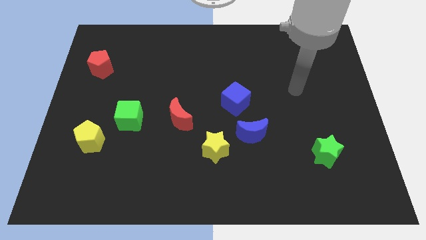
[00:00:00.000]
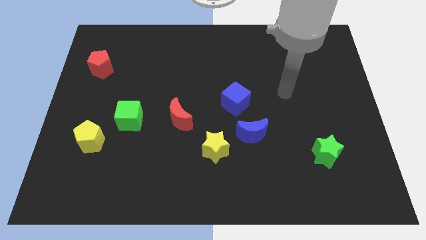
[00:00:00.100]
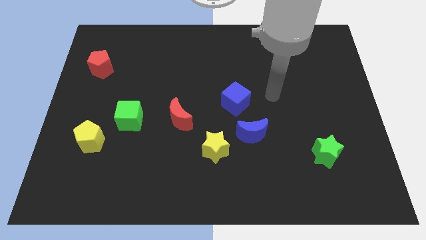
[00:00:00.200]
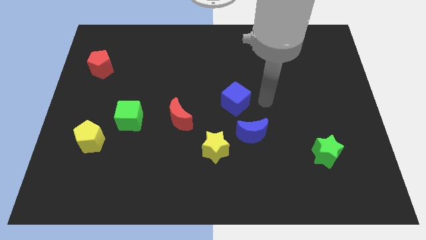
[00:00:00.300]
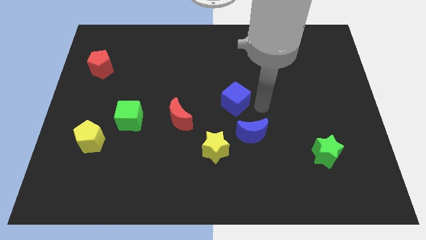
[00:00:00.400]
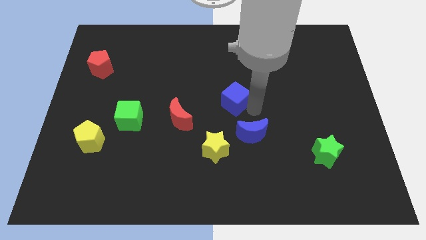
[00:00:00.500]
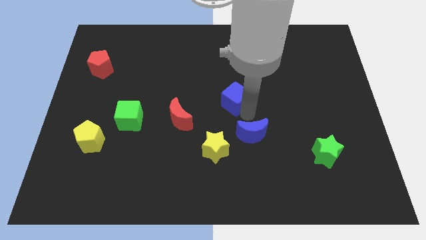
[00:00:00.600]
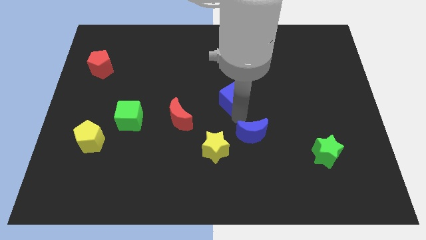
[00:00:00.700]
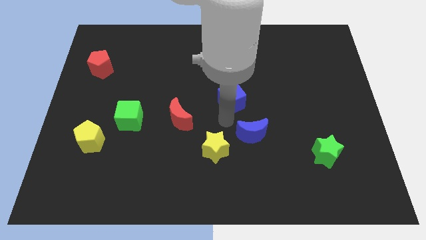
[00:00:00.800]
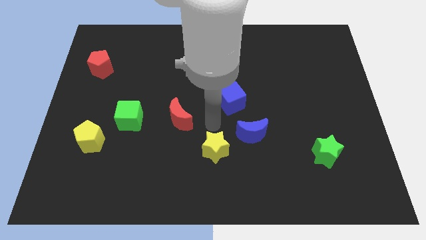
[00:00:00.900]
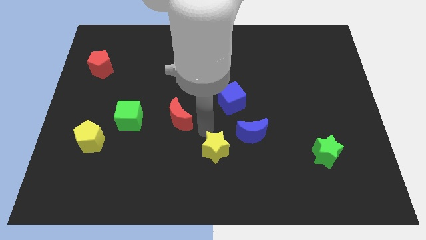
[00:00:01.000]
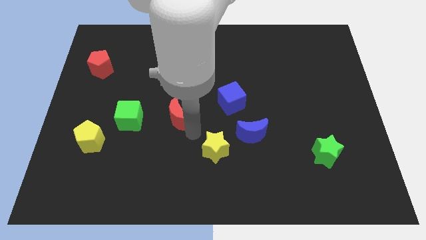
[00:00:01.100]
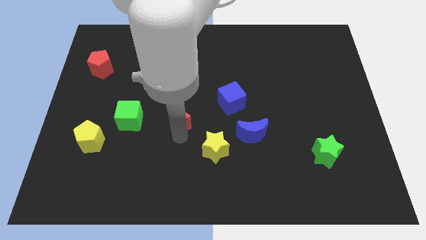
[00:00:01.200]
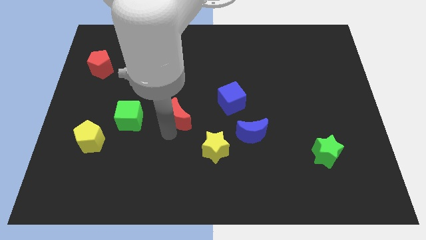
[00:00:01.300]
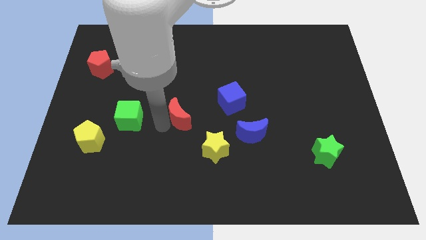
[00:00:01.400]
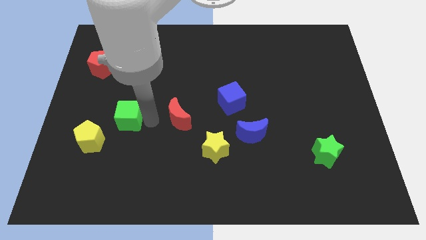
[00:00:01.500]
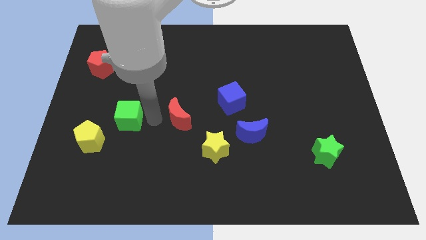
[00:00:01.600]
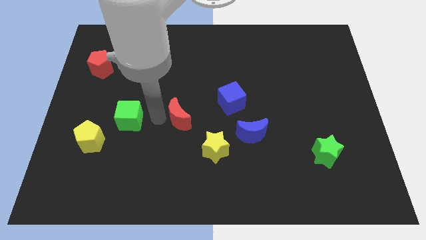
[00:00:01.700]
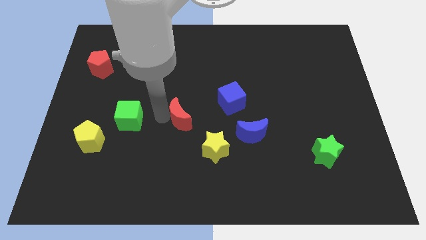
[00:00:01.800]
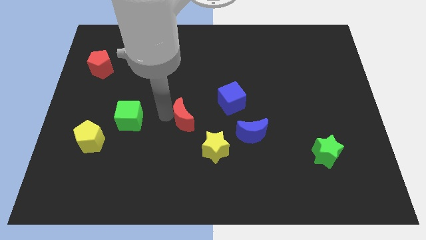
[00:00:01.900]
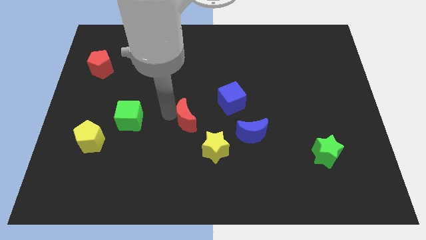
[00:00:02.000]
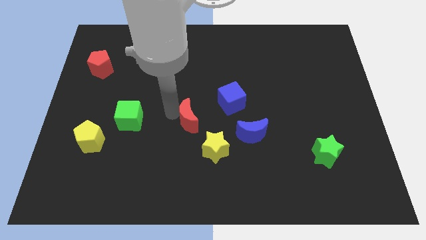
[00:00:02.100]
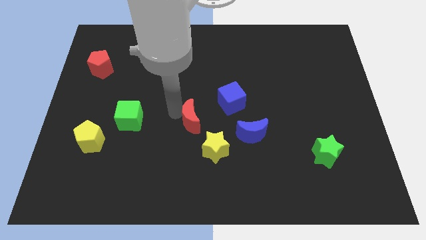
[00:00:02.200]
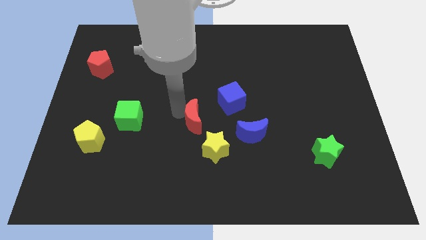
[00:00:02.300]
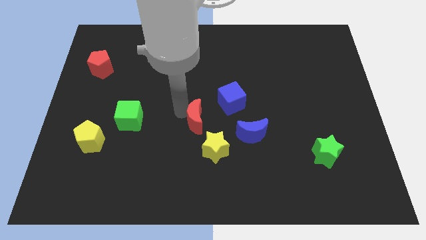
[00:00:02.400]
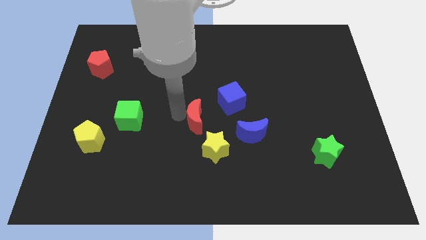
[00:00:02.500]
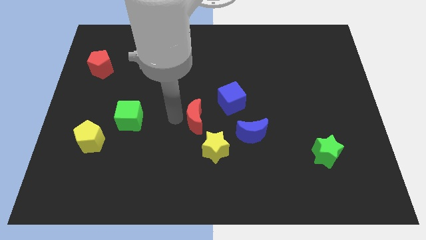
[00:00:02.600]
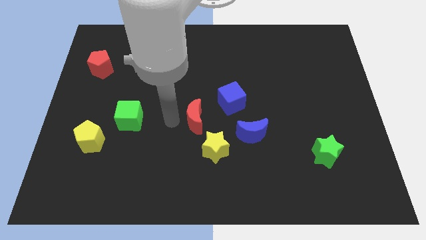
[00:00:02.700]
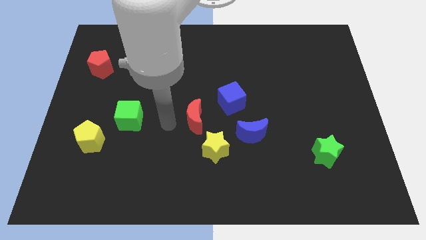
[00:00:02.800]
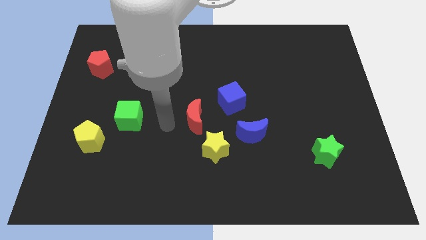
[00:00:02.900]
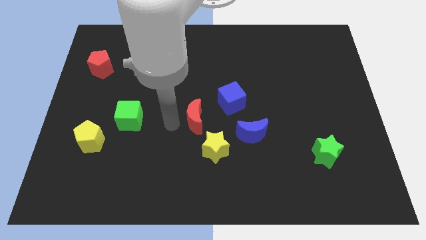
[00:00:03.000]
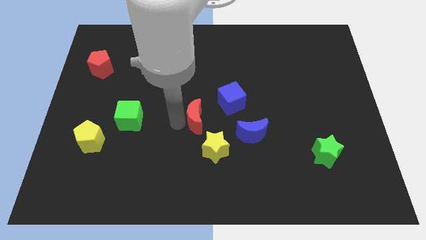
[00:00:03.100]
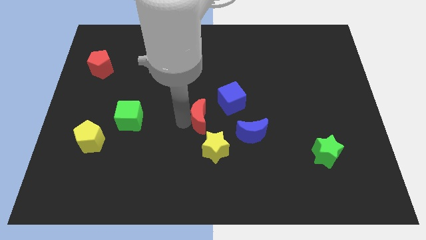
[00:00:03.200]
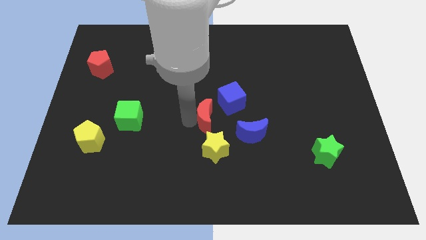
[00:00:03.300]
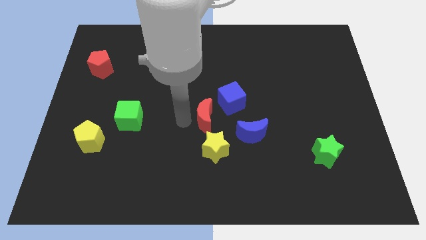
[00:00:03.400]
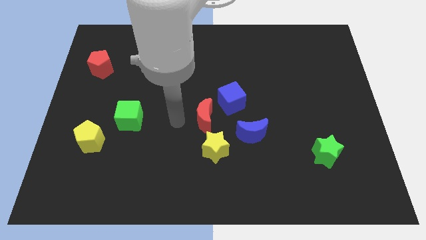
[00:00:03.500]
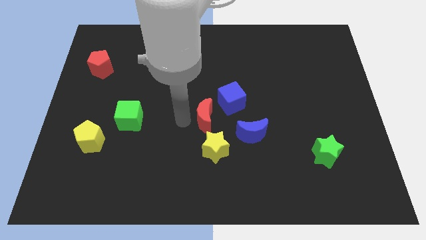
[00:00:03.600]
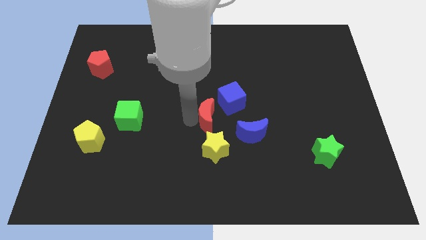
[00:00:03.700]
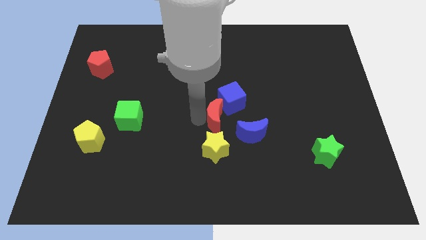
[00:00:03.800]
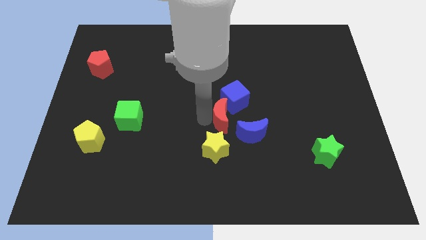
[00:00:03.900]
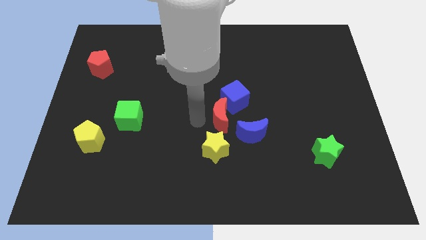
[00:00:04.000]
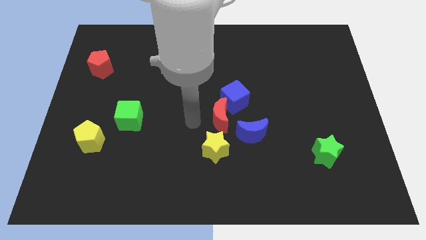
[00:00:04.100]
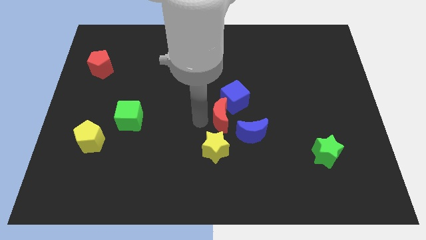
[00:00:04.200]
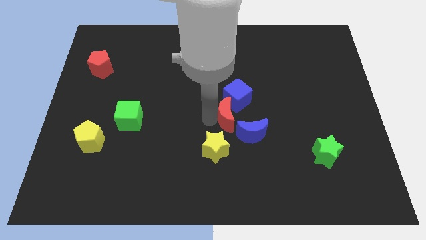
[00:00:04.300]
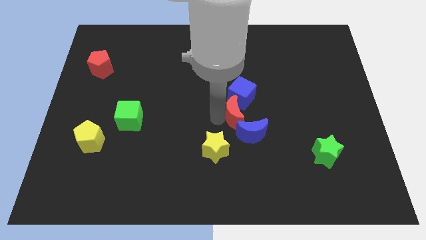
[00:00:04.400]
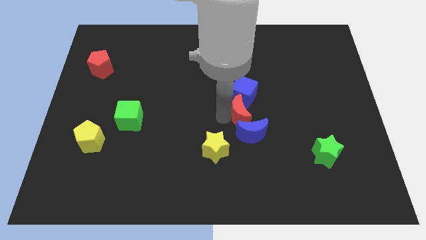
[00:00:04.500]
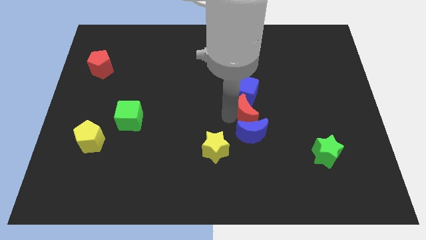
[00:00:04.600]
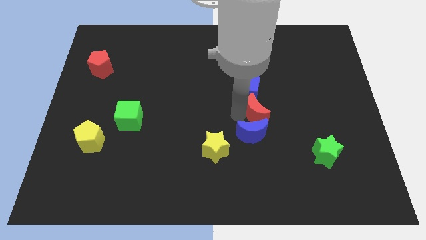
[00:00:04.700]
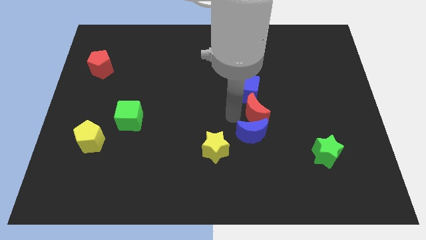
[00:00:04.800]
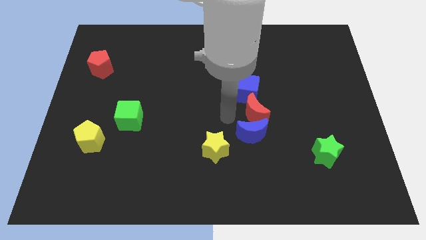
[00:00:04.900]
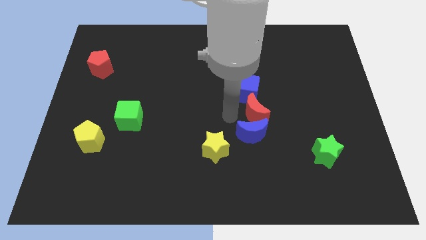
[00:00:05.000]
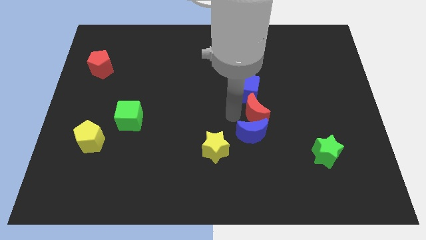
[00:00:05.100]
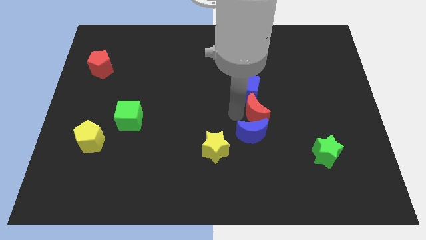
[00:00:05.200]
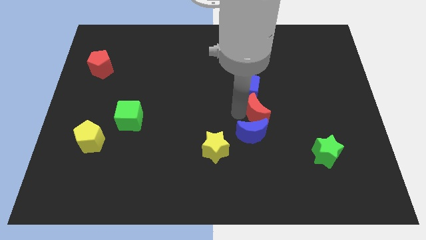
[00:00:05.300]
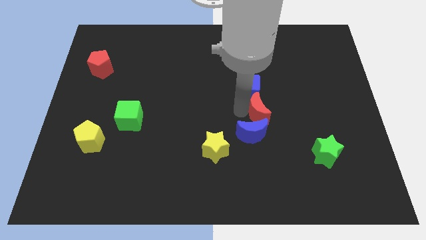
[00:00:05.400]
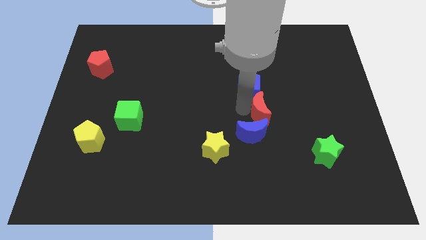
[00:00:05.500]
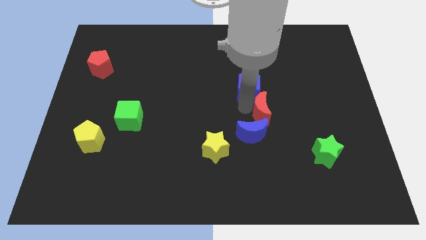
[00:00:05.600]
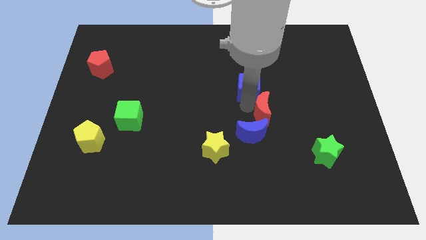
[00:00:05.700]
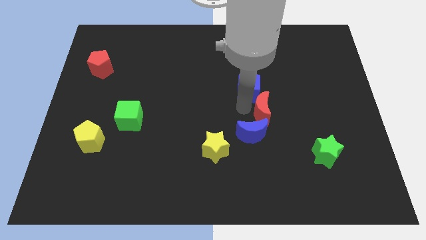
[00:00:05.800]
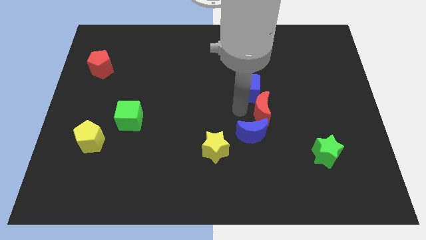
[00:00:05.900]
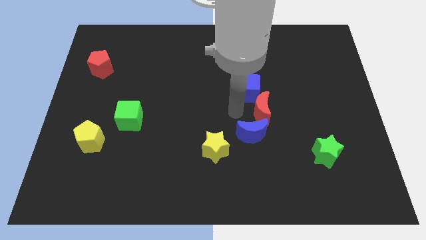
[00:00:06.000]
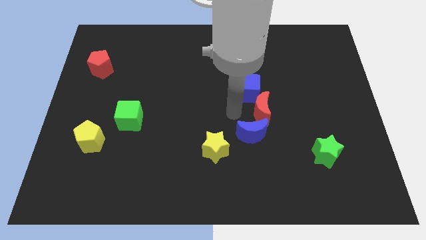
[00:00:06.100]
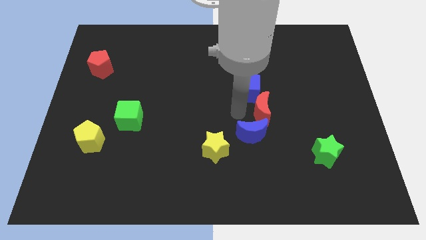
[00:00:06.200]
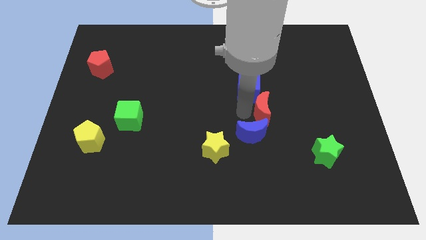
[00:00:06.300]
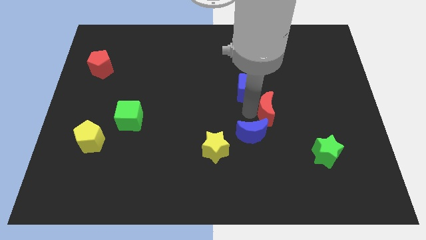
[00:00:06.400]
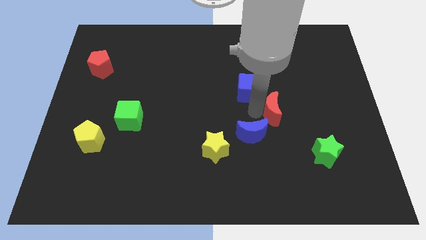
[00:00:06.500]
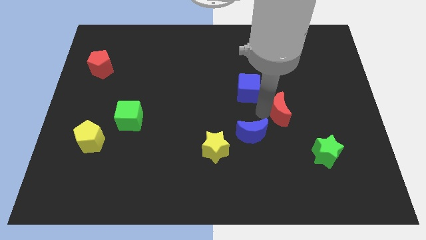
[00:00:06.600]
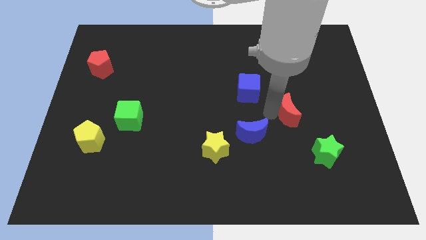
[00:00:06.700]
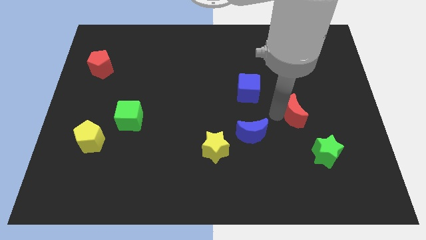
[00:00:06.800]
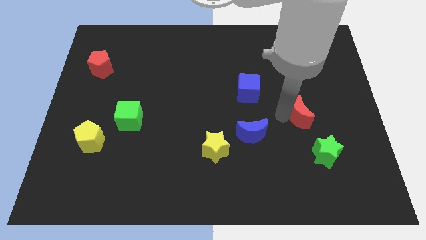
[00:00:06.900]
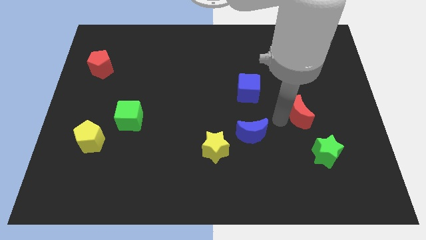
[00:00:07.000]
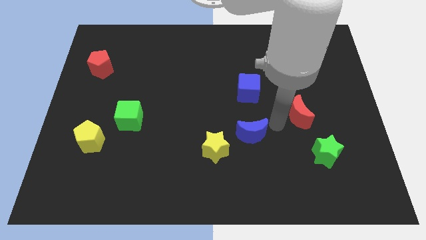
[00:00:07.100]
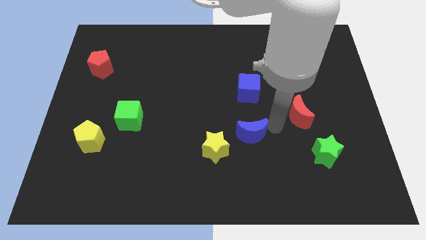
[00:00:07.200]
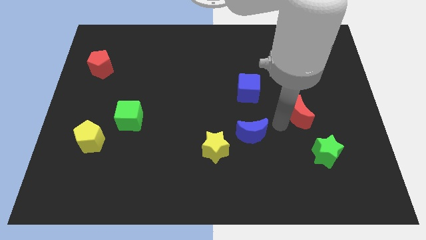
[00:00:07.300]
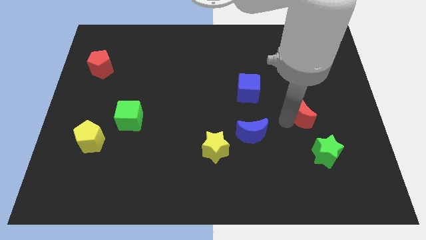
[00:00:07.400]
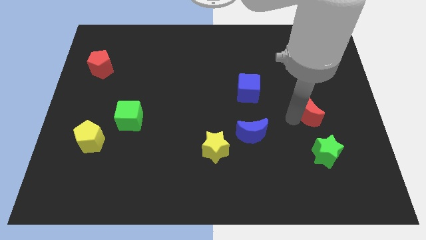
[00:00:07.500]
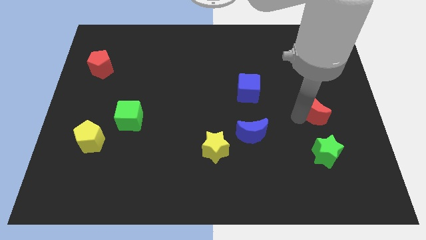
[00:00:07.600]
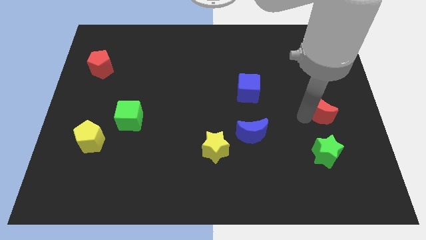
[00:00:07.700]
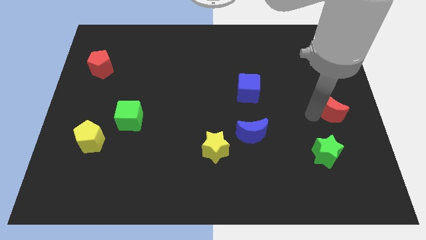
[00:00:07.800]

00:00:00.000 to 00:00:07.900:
move the red moon to the right side of the board
